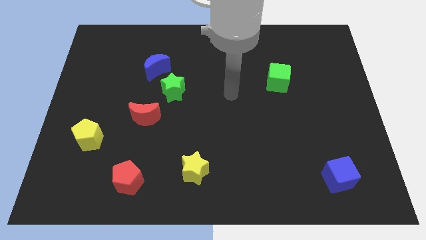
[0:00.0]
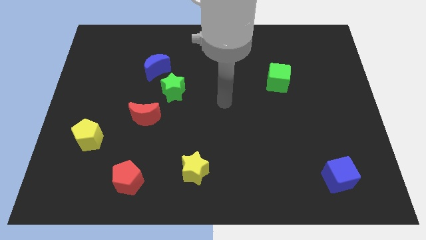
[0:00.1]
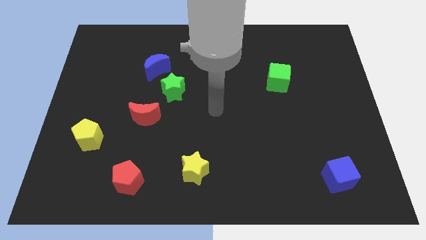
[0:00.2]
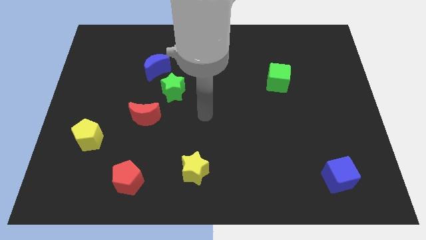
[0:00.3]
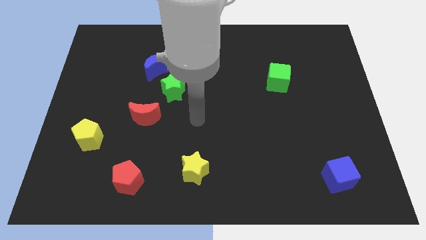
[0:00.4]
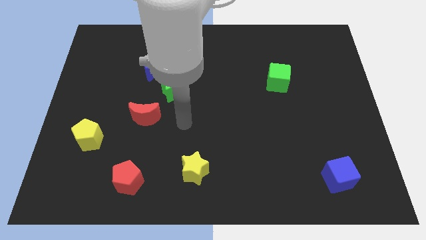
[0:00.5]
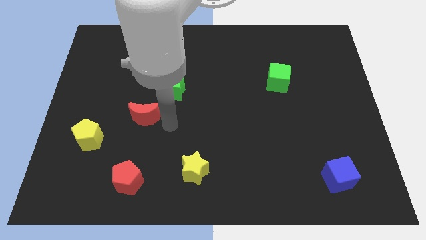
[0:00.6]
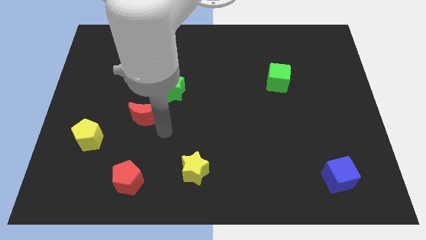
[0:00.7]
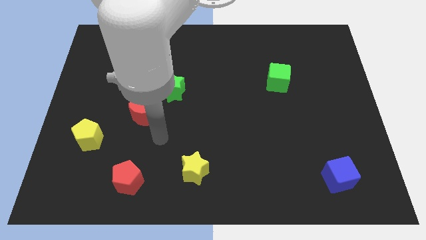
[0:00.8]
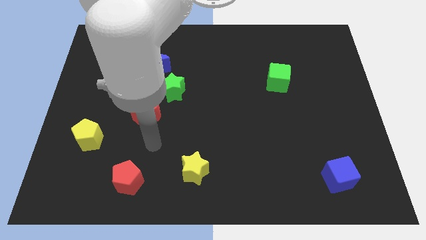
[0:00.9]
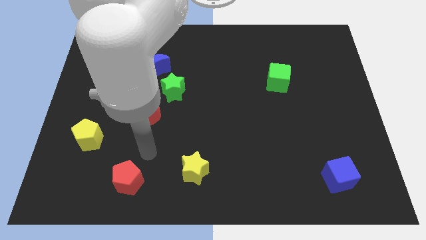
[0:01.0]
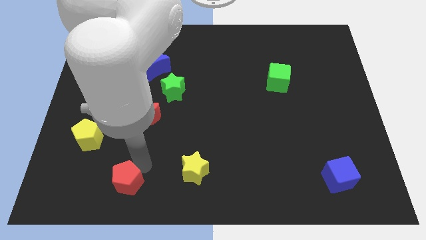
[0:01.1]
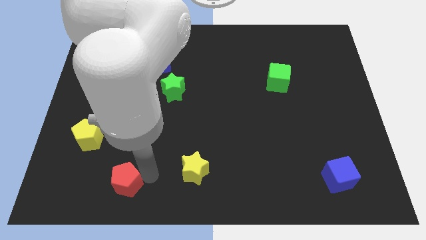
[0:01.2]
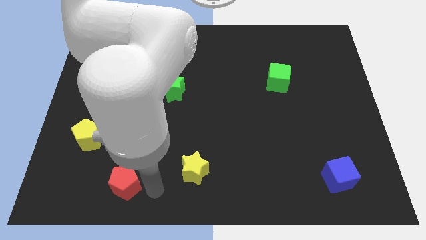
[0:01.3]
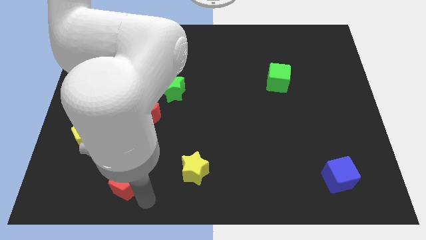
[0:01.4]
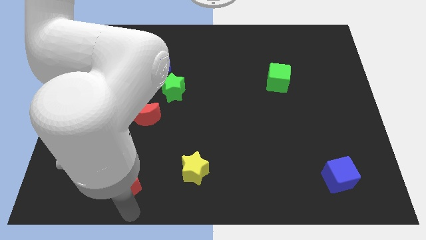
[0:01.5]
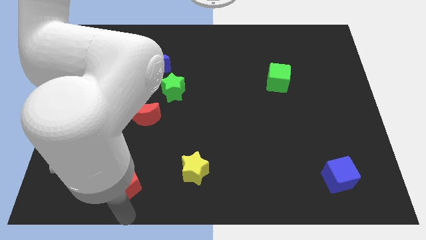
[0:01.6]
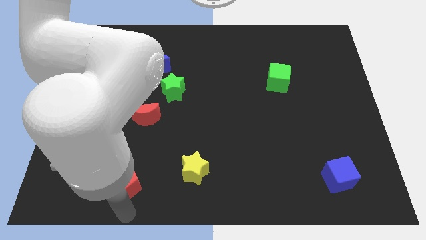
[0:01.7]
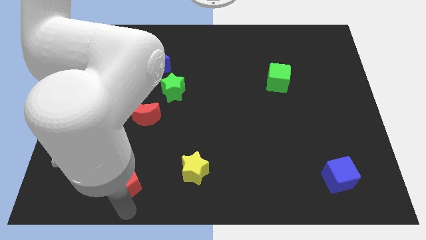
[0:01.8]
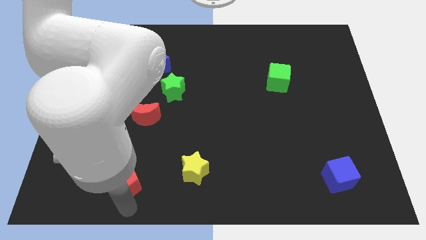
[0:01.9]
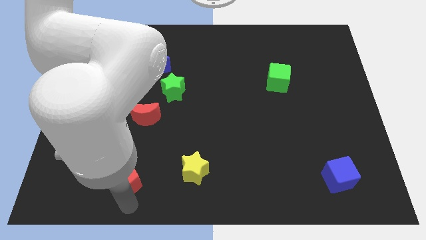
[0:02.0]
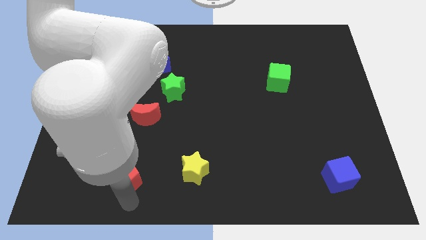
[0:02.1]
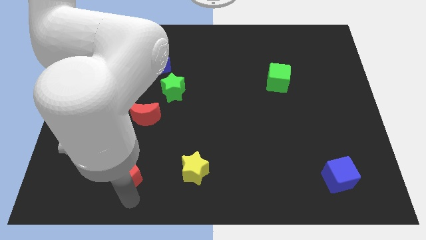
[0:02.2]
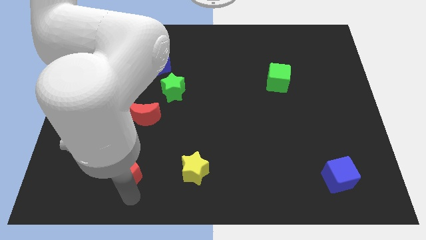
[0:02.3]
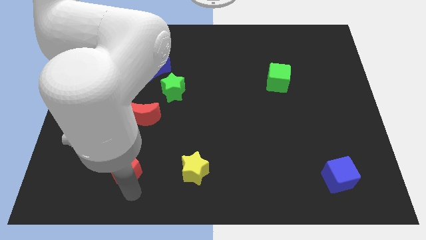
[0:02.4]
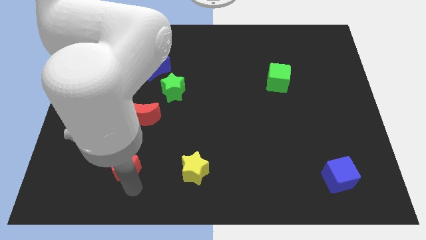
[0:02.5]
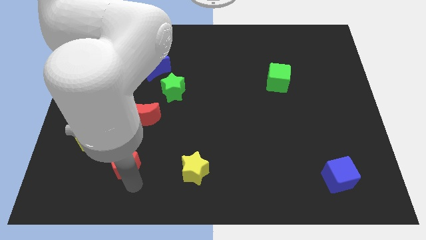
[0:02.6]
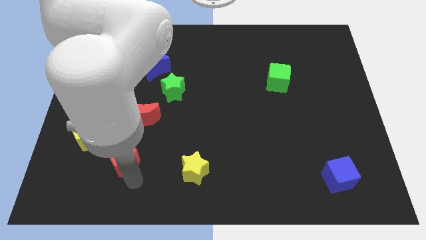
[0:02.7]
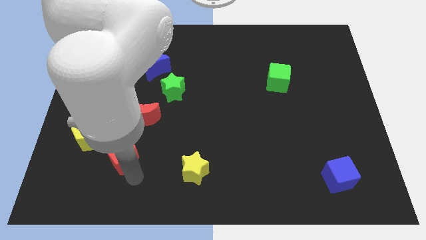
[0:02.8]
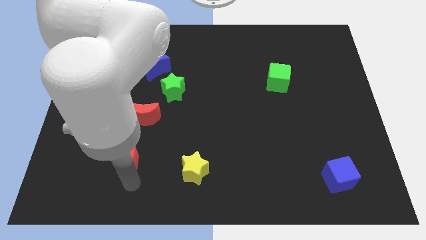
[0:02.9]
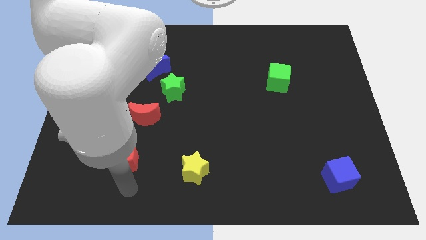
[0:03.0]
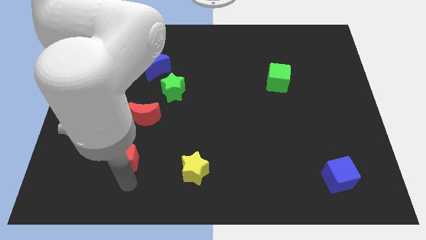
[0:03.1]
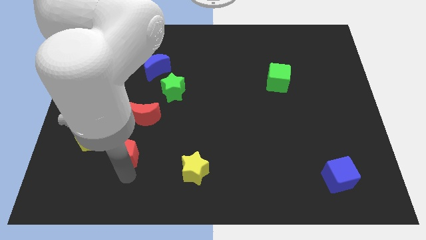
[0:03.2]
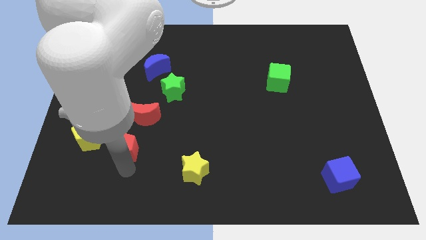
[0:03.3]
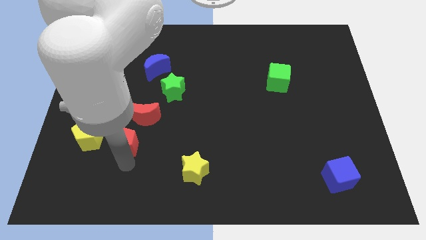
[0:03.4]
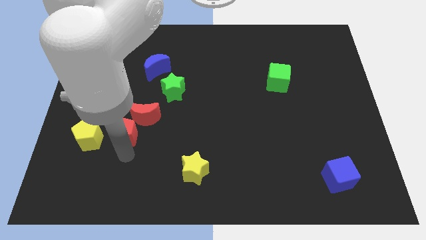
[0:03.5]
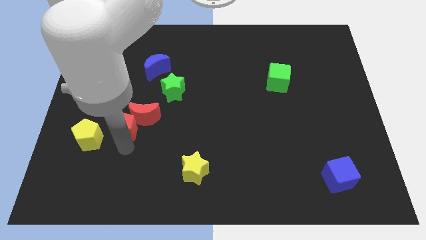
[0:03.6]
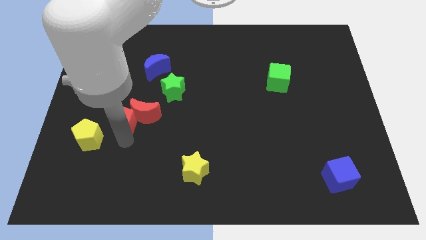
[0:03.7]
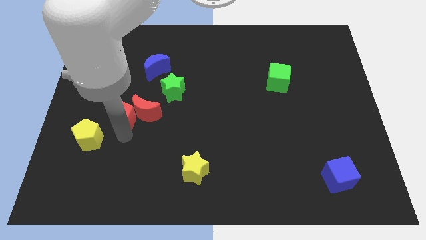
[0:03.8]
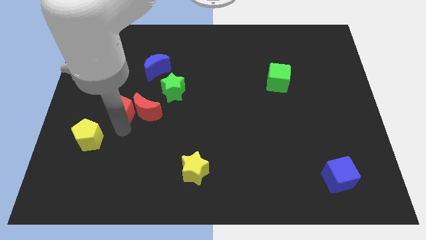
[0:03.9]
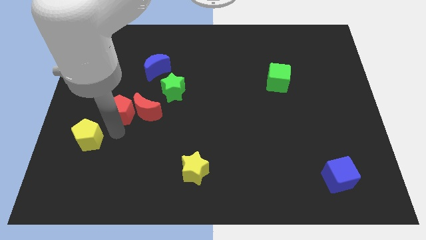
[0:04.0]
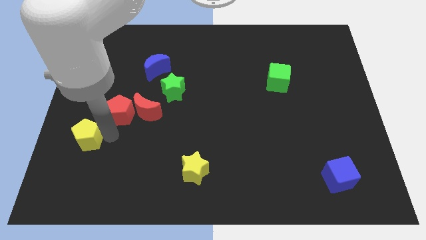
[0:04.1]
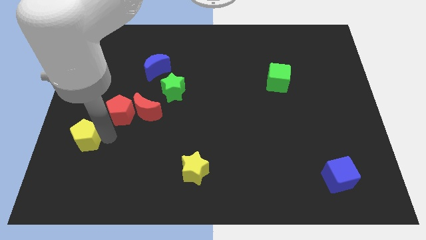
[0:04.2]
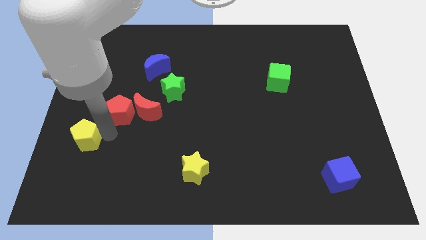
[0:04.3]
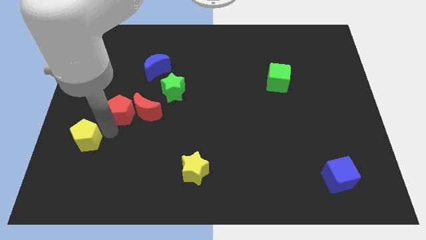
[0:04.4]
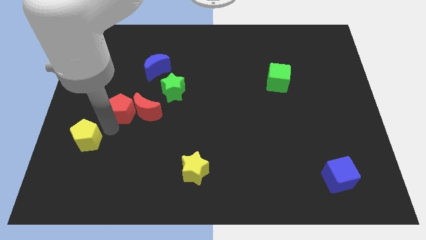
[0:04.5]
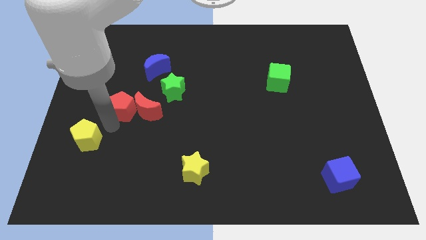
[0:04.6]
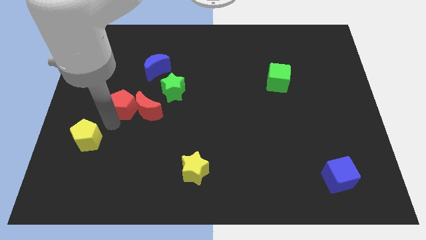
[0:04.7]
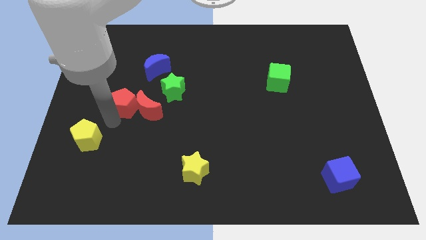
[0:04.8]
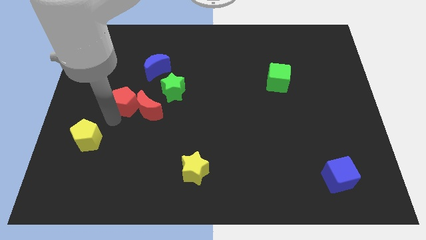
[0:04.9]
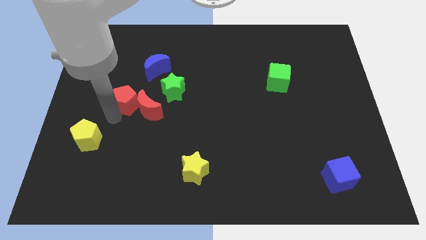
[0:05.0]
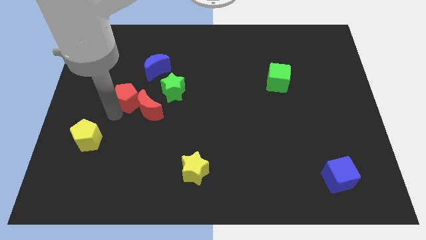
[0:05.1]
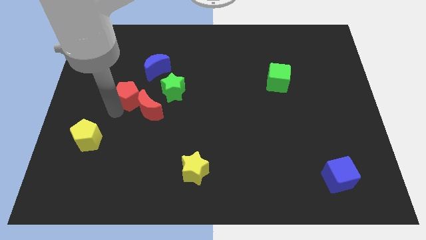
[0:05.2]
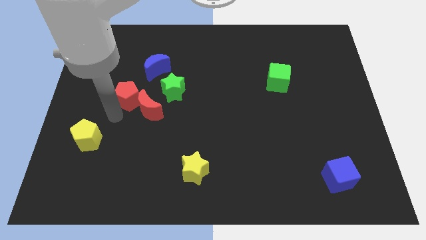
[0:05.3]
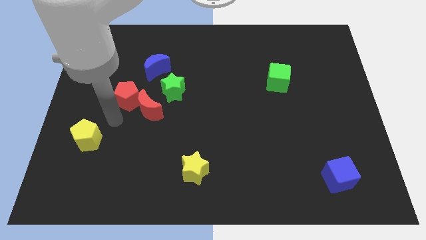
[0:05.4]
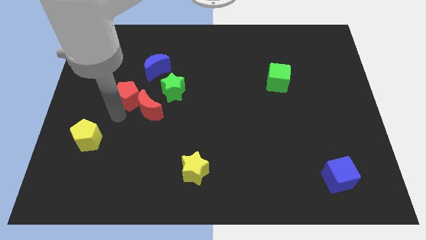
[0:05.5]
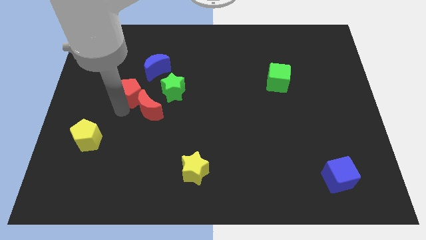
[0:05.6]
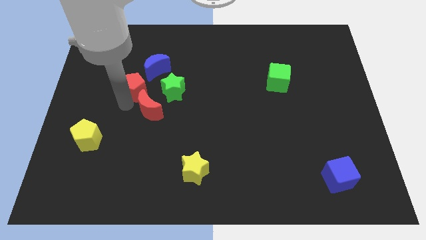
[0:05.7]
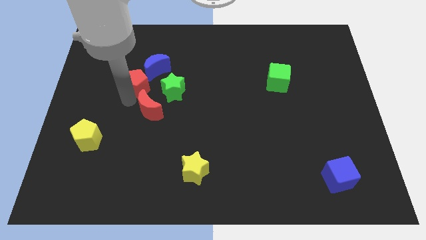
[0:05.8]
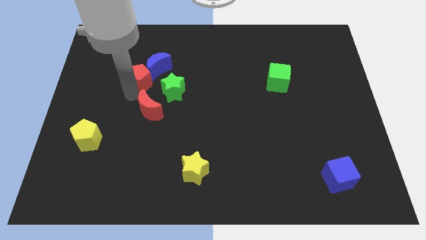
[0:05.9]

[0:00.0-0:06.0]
push the red pentagon next to the blue moon

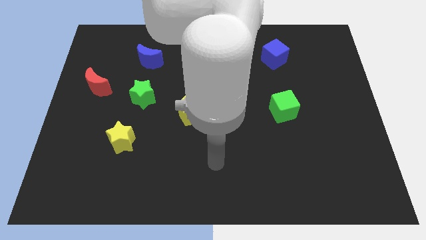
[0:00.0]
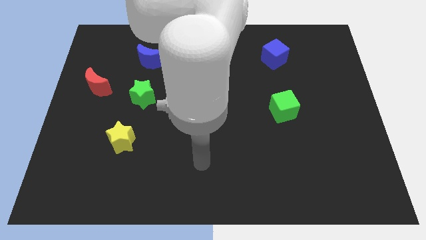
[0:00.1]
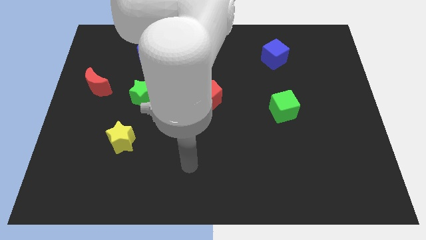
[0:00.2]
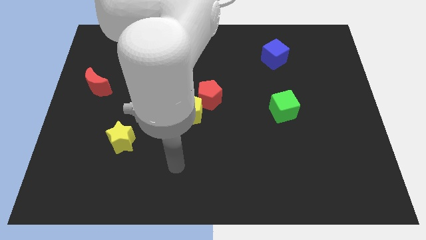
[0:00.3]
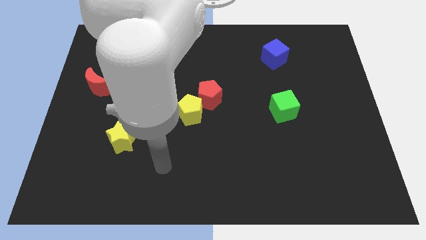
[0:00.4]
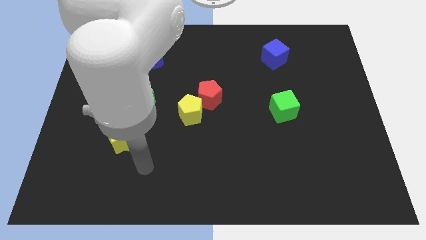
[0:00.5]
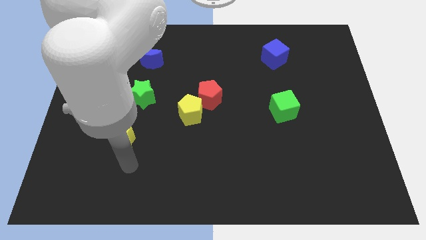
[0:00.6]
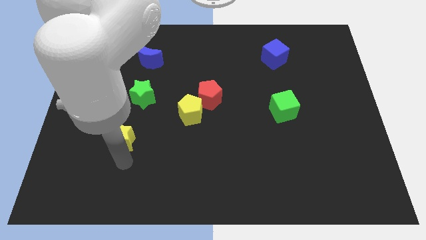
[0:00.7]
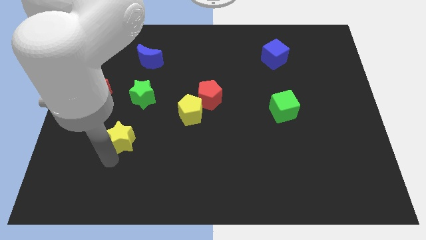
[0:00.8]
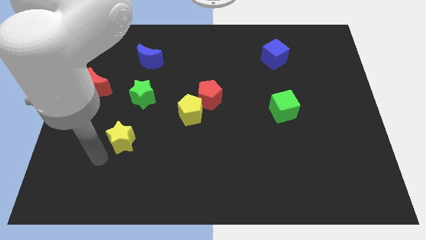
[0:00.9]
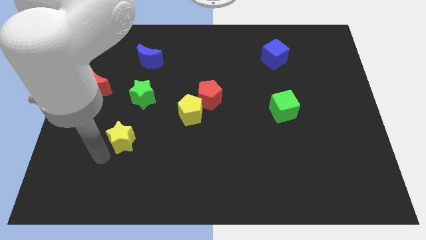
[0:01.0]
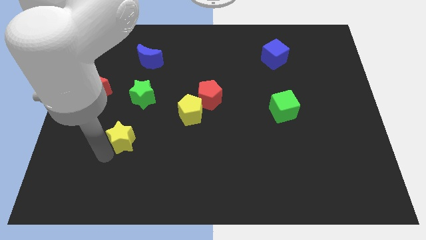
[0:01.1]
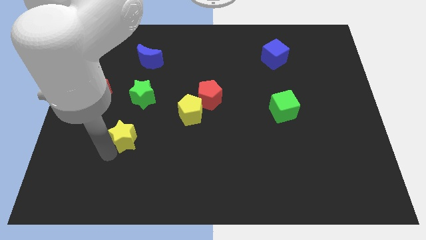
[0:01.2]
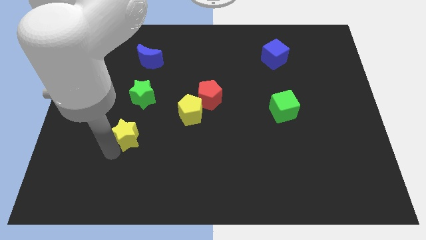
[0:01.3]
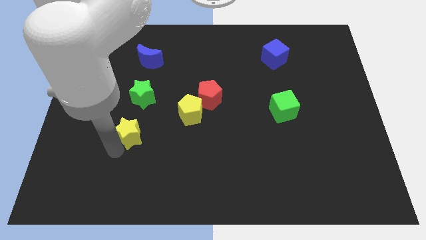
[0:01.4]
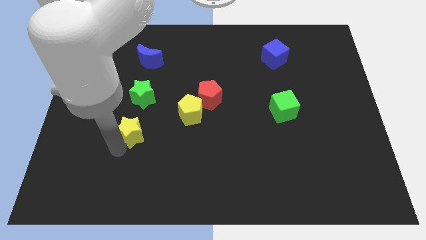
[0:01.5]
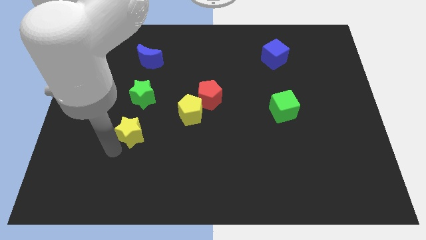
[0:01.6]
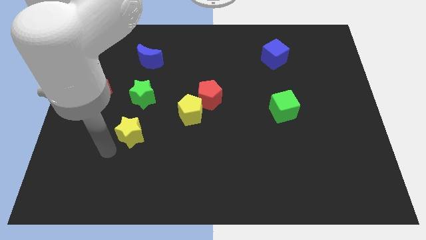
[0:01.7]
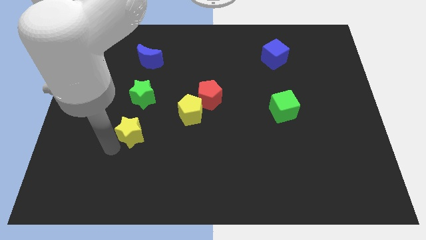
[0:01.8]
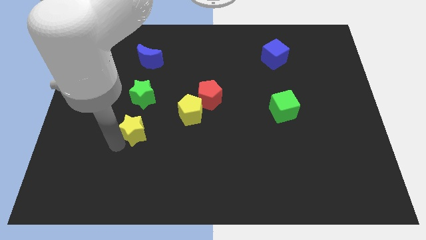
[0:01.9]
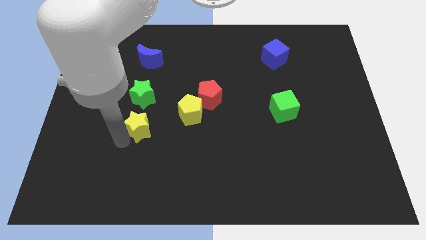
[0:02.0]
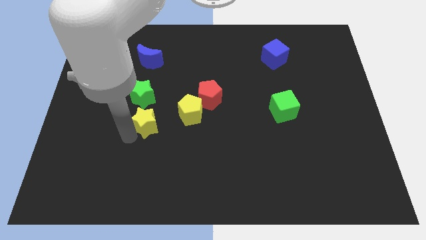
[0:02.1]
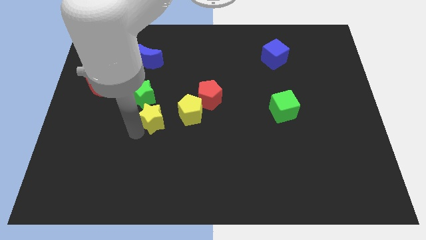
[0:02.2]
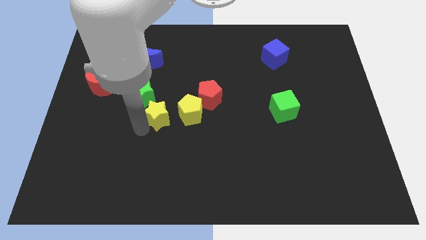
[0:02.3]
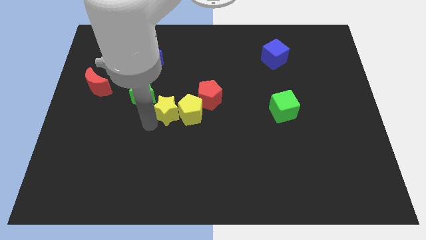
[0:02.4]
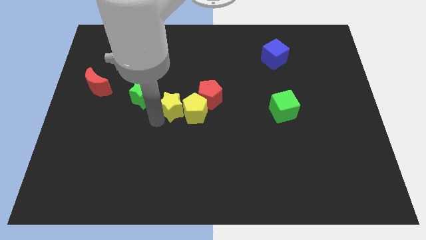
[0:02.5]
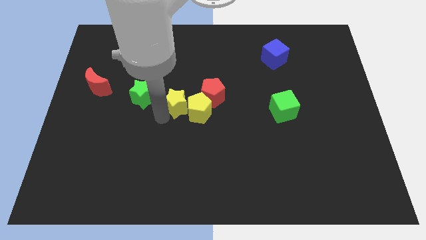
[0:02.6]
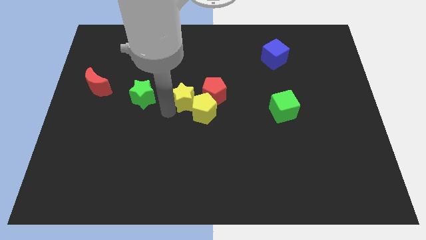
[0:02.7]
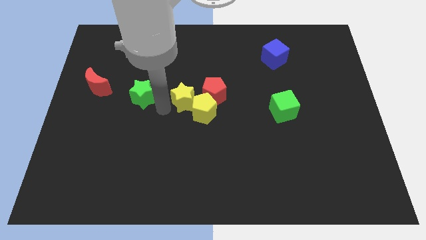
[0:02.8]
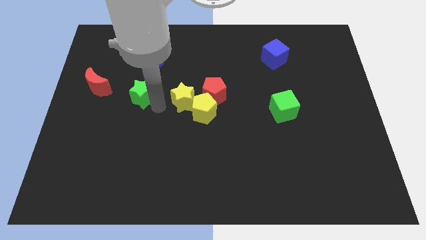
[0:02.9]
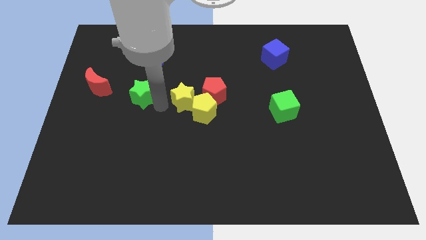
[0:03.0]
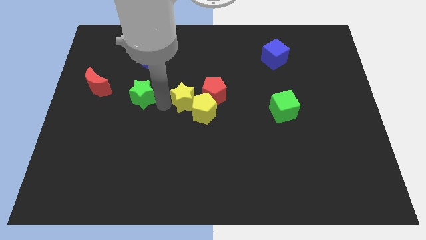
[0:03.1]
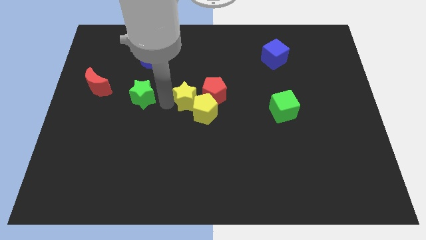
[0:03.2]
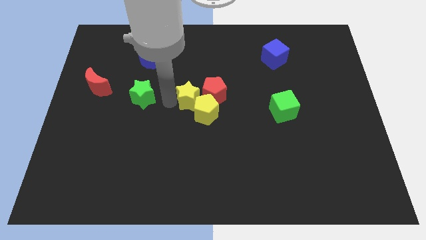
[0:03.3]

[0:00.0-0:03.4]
slide the yellow star to the red pentagon
